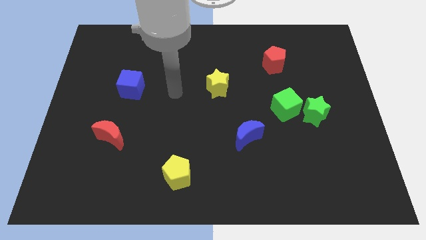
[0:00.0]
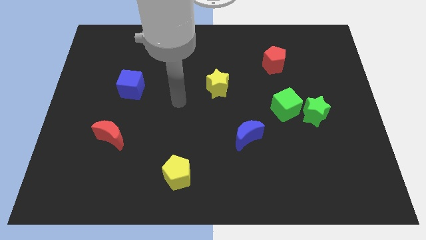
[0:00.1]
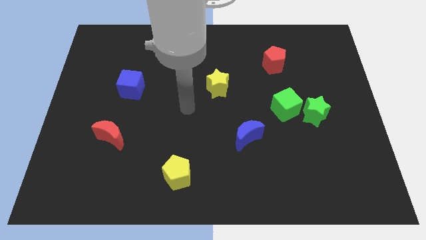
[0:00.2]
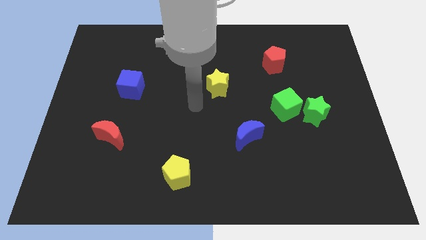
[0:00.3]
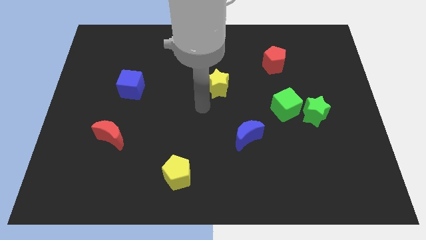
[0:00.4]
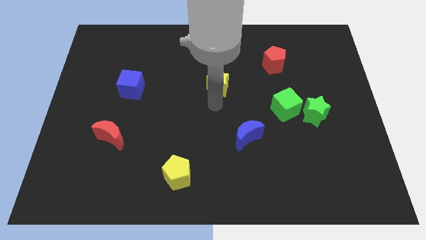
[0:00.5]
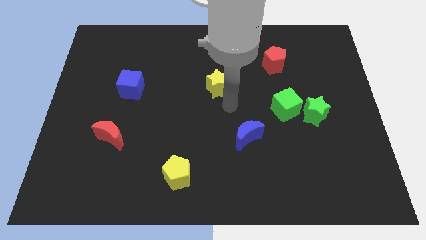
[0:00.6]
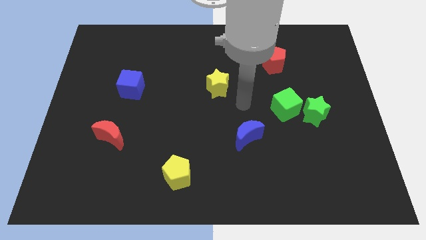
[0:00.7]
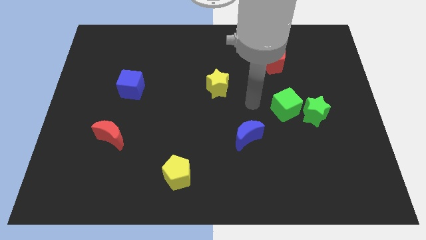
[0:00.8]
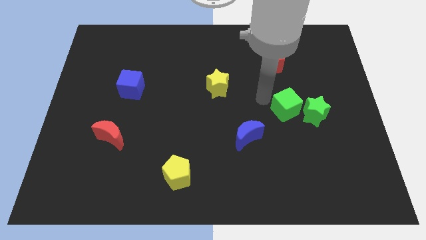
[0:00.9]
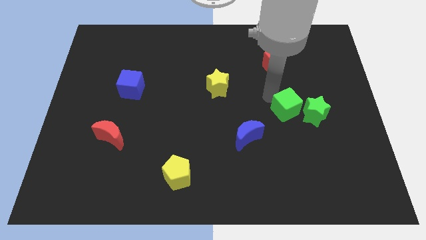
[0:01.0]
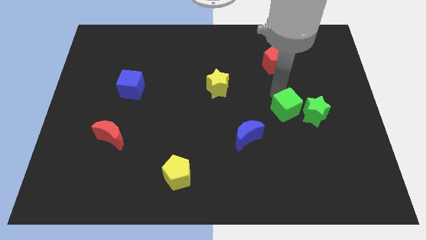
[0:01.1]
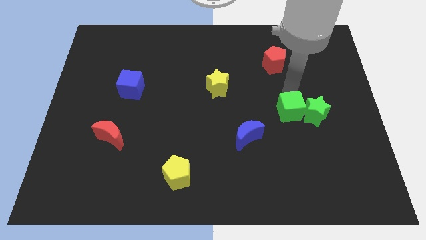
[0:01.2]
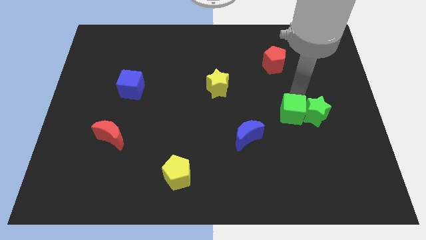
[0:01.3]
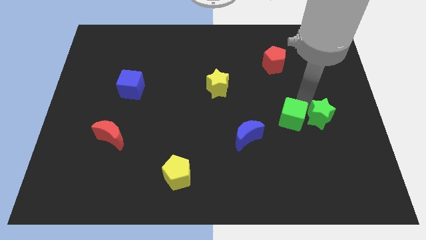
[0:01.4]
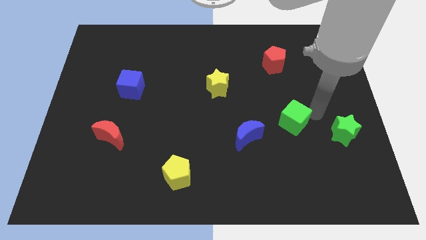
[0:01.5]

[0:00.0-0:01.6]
pull the green cube apart from the green star

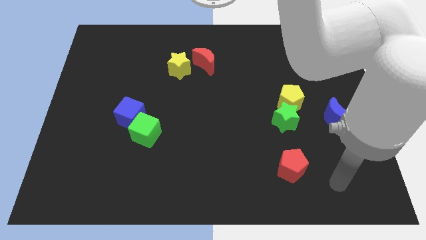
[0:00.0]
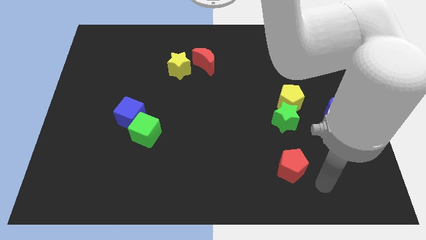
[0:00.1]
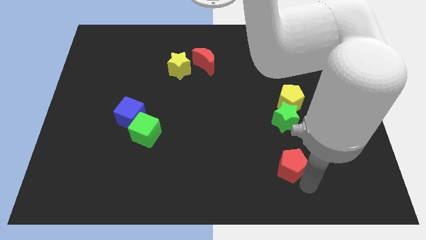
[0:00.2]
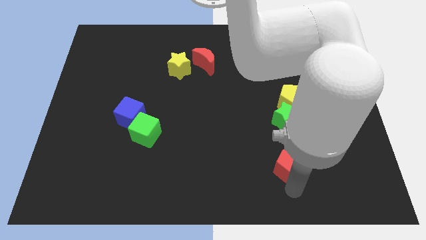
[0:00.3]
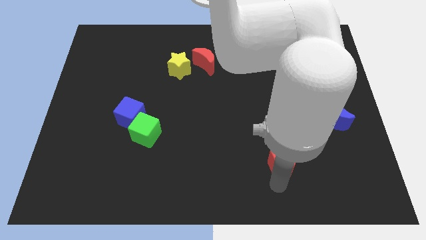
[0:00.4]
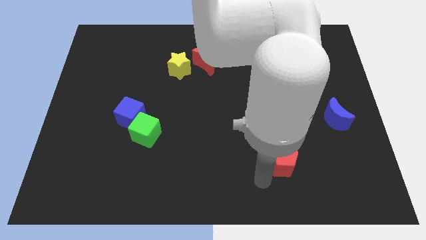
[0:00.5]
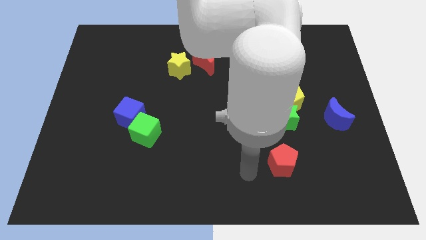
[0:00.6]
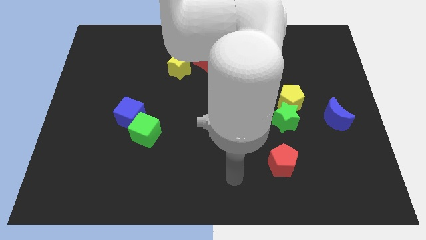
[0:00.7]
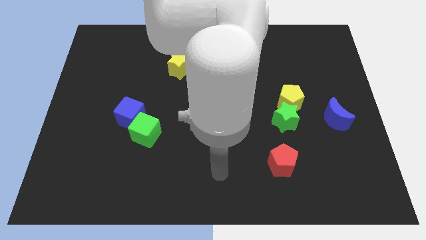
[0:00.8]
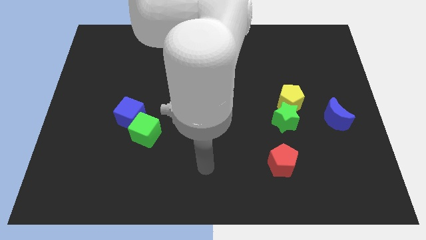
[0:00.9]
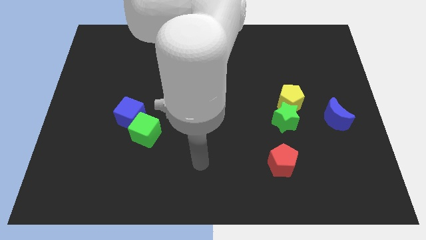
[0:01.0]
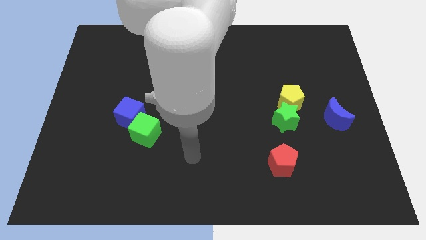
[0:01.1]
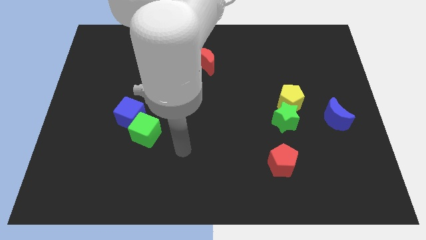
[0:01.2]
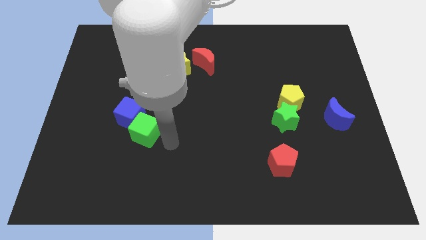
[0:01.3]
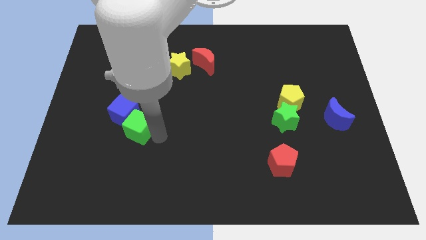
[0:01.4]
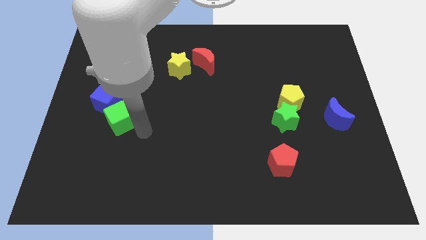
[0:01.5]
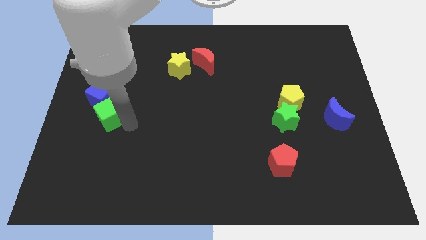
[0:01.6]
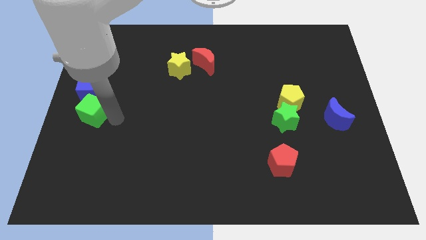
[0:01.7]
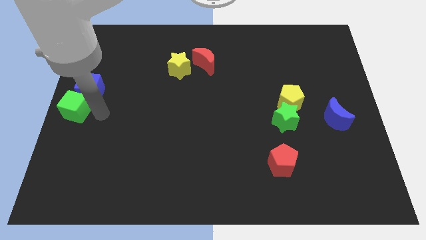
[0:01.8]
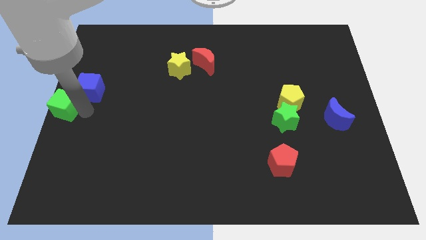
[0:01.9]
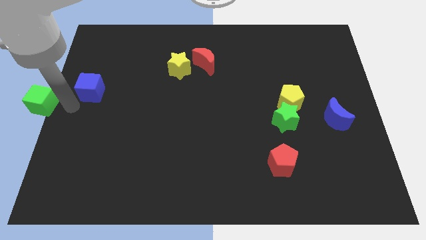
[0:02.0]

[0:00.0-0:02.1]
pull the blue cube apart from the green cube

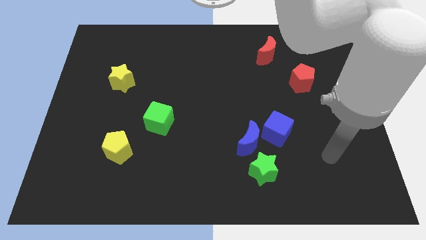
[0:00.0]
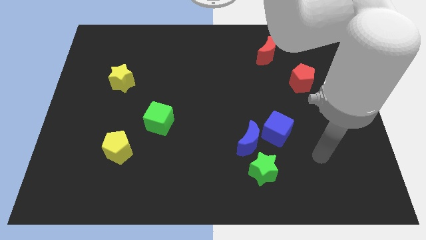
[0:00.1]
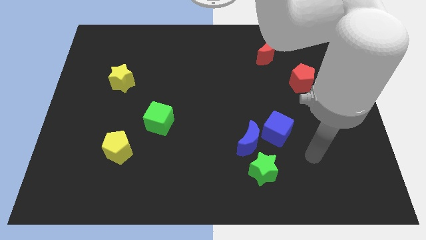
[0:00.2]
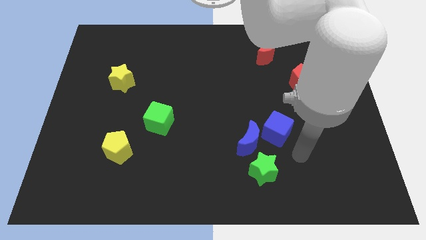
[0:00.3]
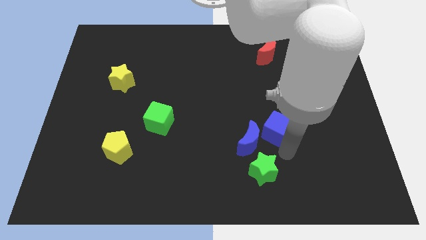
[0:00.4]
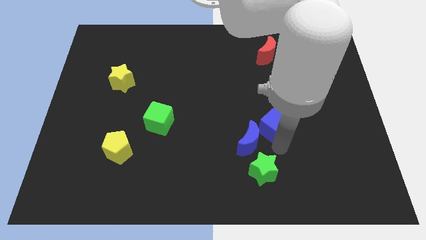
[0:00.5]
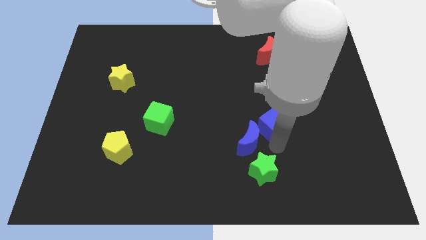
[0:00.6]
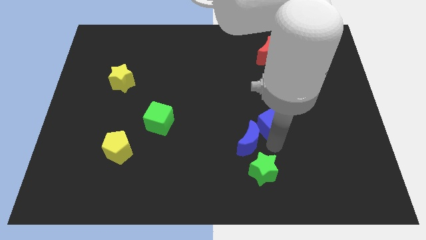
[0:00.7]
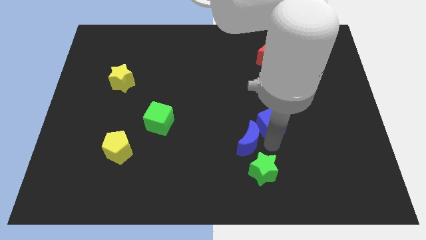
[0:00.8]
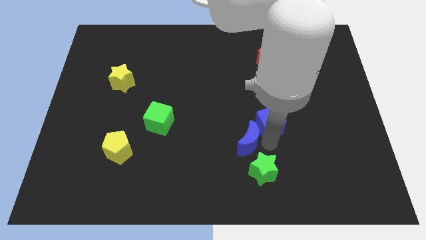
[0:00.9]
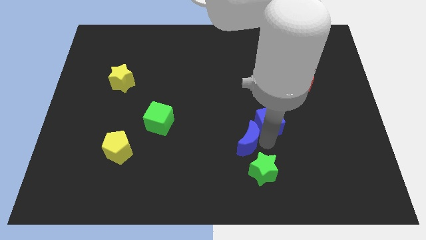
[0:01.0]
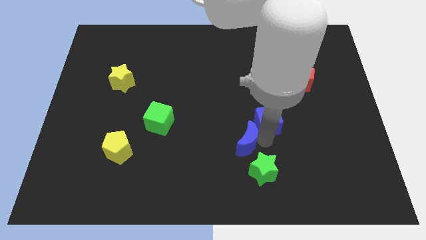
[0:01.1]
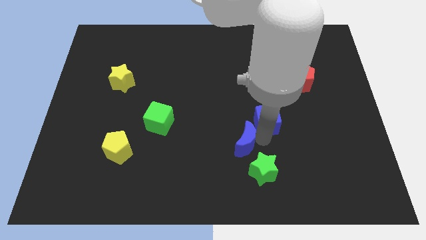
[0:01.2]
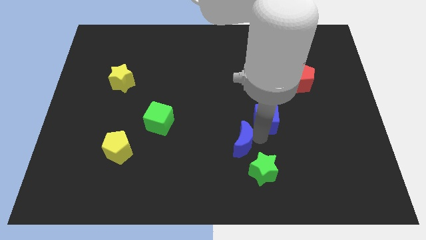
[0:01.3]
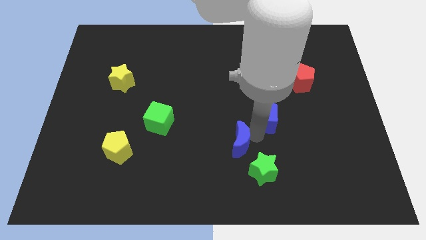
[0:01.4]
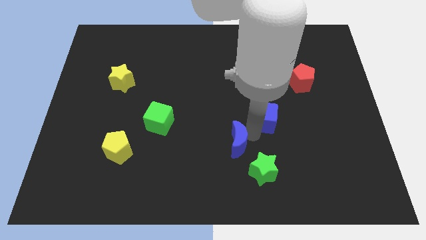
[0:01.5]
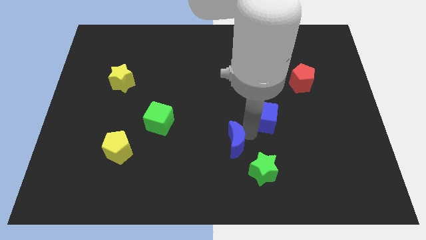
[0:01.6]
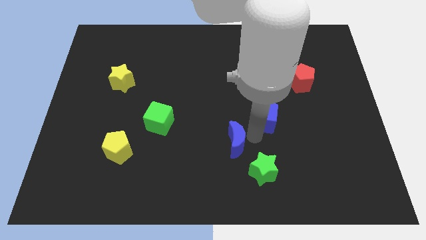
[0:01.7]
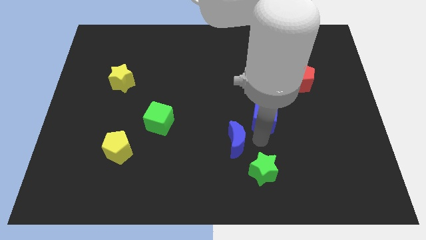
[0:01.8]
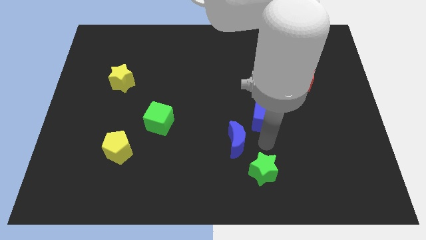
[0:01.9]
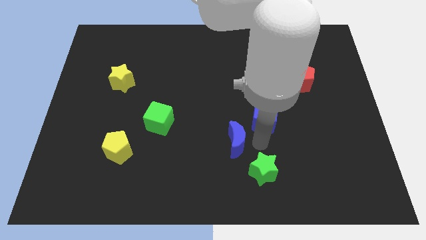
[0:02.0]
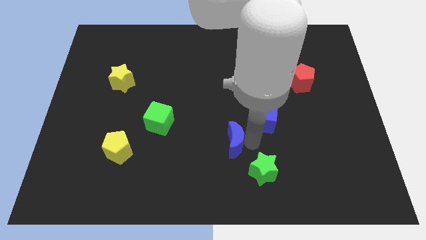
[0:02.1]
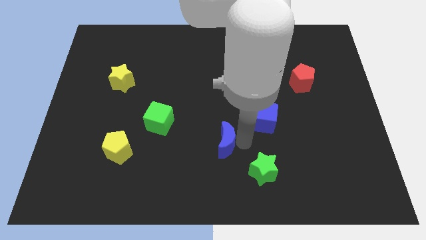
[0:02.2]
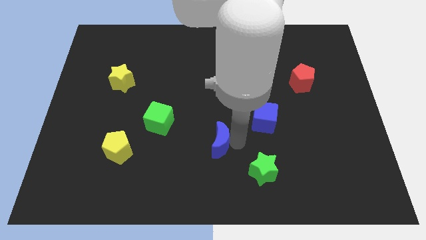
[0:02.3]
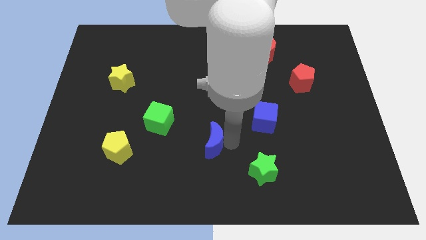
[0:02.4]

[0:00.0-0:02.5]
move the blue moon away from the blue cube and green star

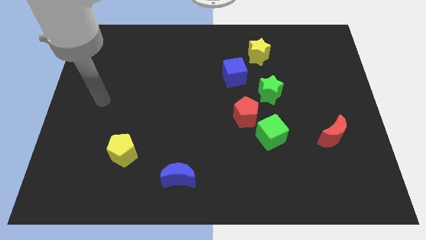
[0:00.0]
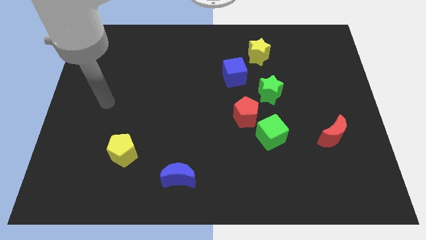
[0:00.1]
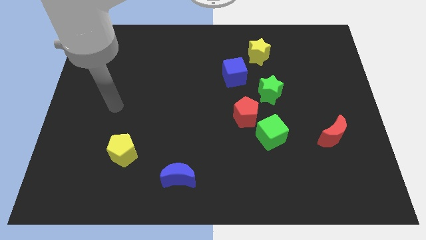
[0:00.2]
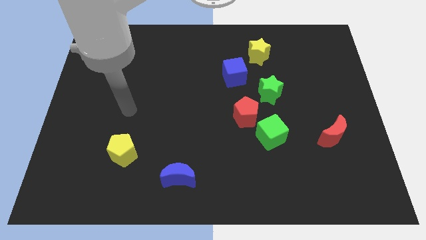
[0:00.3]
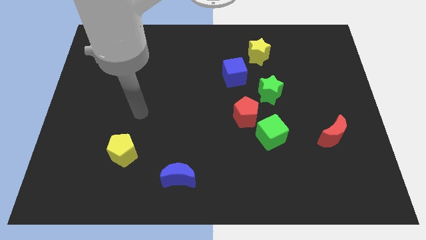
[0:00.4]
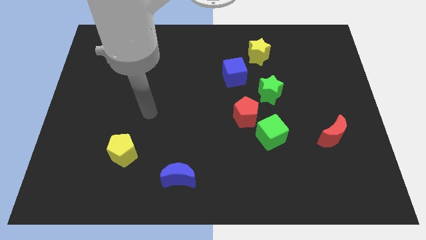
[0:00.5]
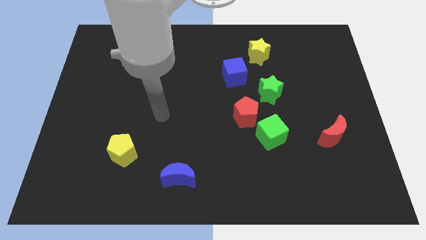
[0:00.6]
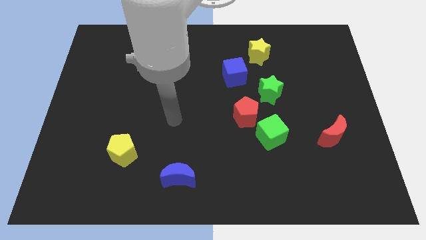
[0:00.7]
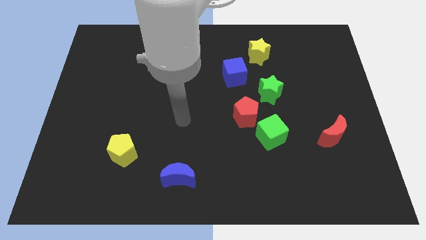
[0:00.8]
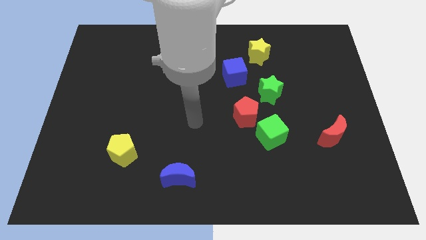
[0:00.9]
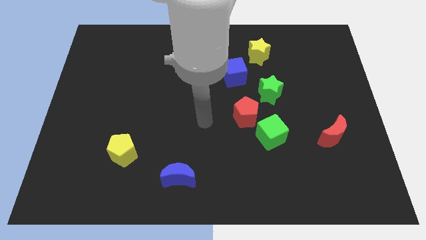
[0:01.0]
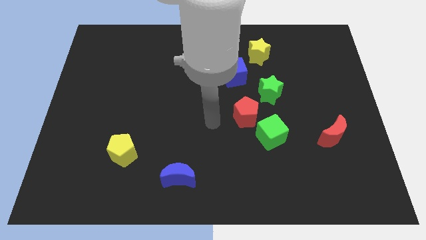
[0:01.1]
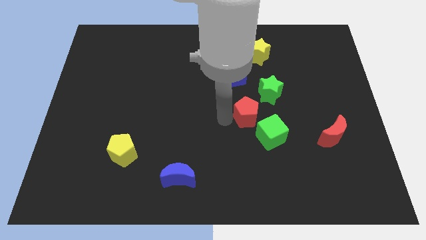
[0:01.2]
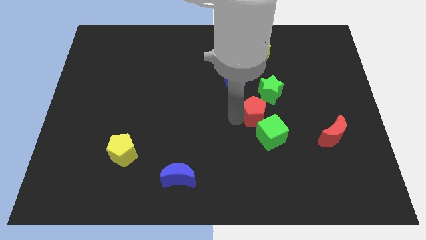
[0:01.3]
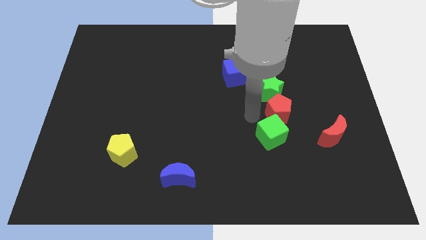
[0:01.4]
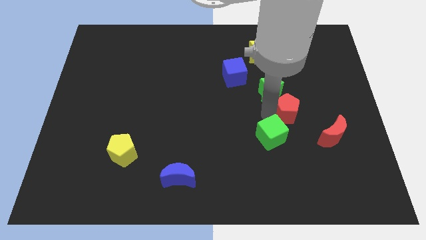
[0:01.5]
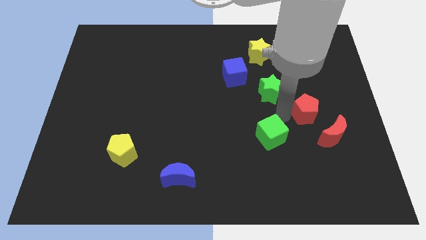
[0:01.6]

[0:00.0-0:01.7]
separate the green cube from the red pentagon

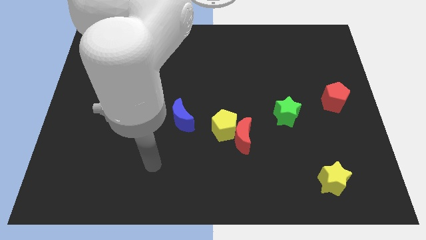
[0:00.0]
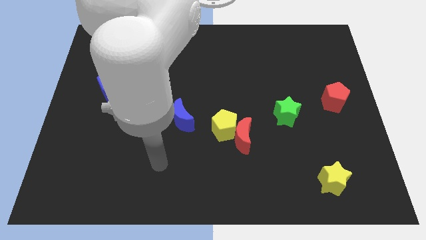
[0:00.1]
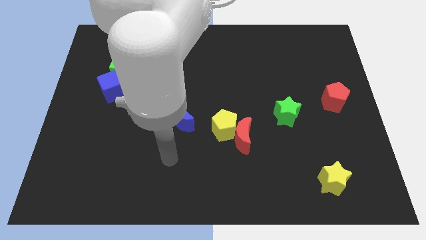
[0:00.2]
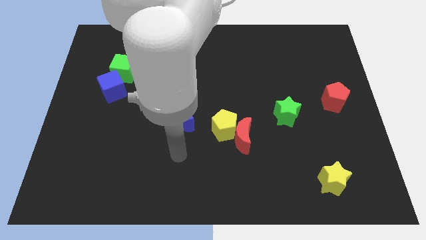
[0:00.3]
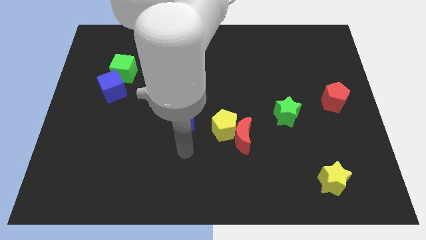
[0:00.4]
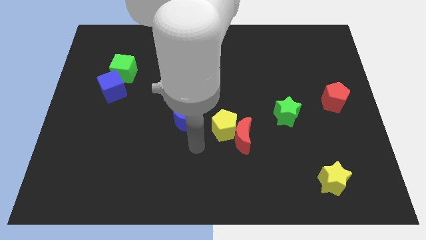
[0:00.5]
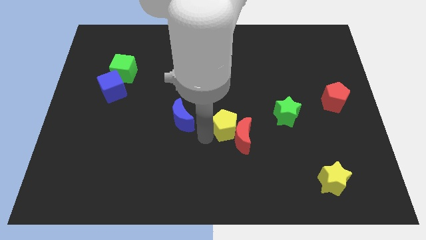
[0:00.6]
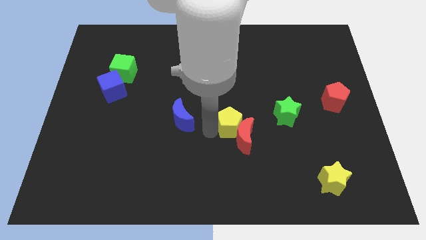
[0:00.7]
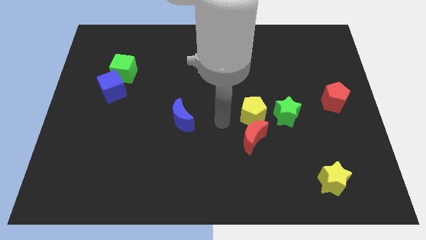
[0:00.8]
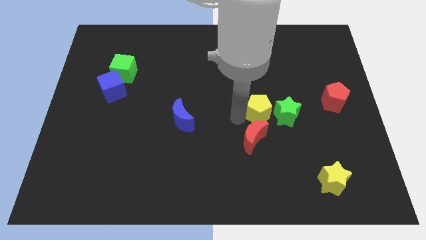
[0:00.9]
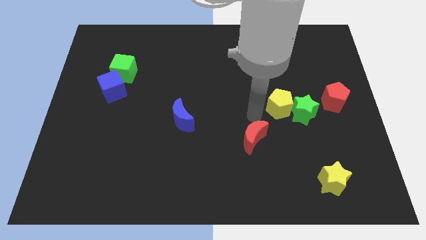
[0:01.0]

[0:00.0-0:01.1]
pull the red moon apart from the yellow pentagon

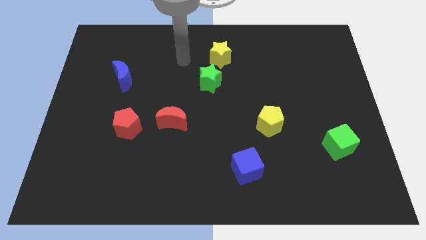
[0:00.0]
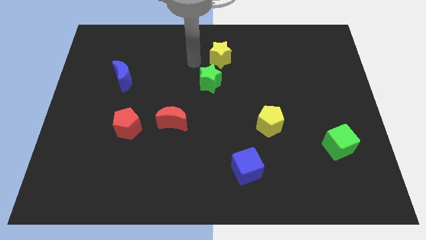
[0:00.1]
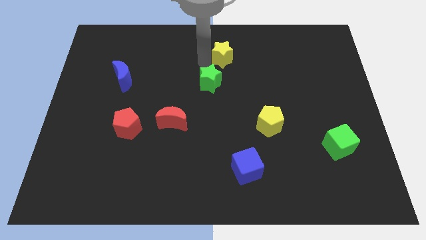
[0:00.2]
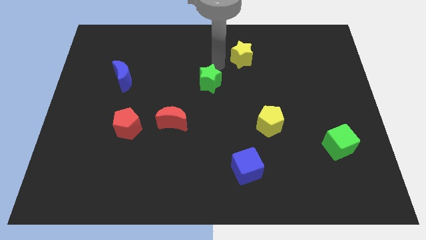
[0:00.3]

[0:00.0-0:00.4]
separate the green star from the yellow star
